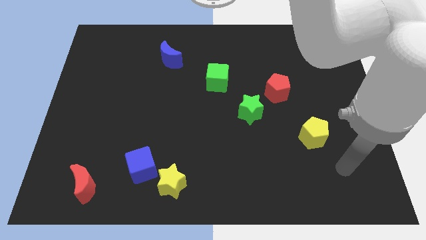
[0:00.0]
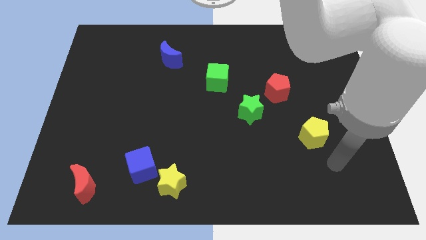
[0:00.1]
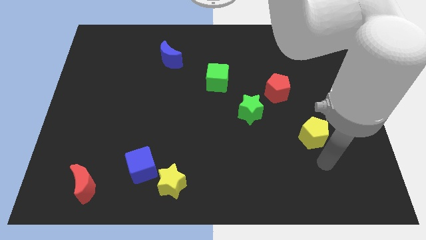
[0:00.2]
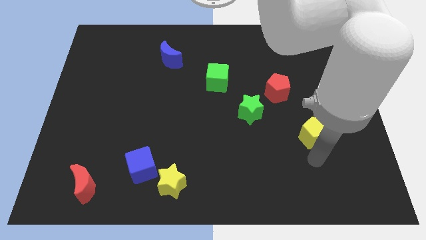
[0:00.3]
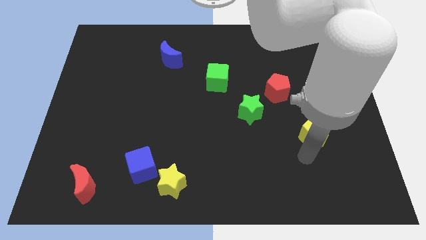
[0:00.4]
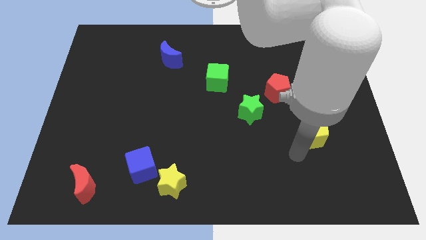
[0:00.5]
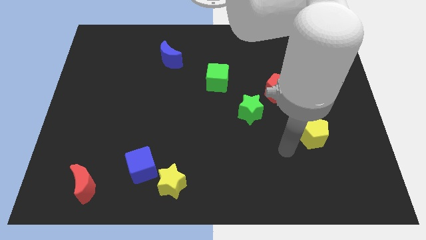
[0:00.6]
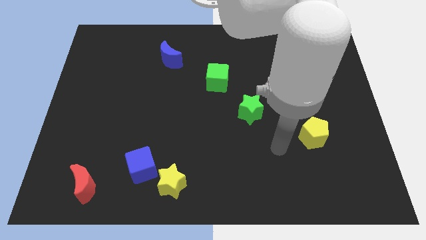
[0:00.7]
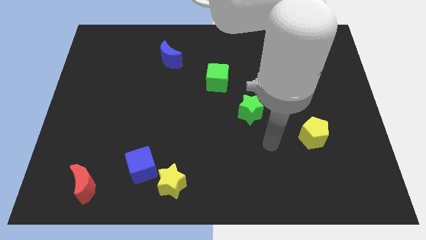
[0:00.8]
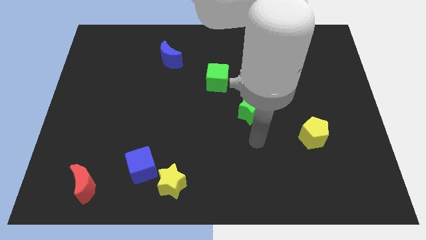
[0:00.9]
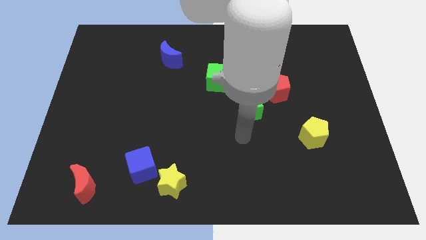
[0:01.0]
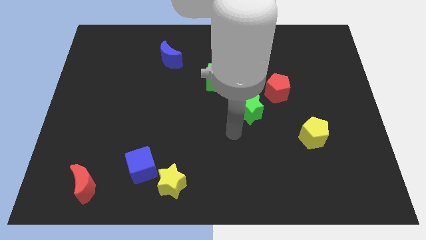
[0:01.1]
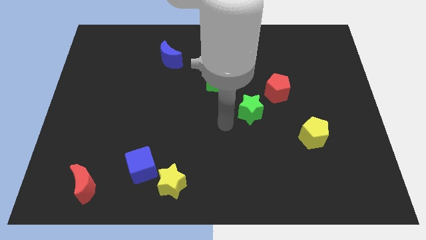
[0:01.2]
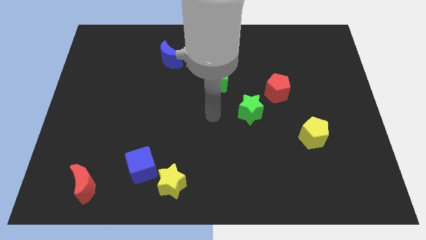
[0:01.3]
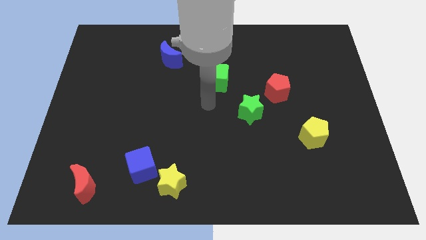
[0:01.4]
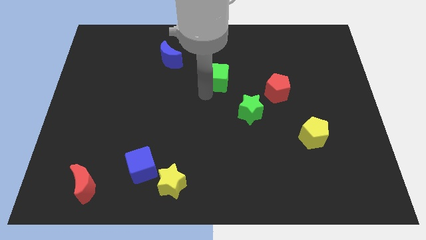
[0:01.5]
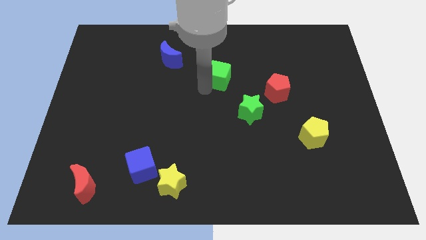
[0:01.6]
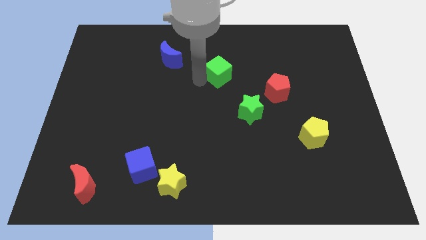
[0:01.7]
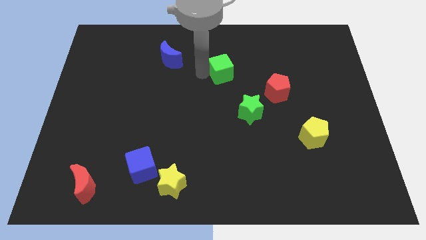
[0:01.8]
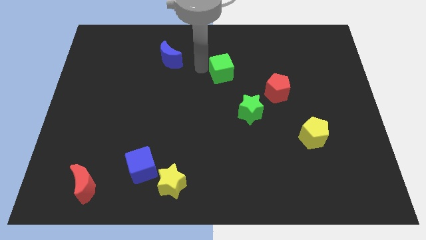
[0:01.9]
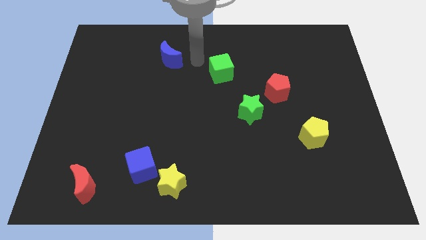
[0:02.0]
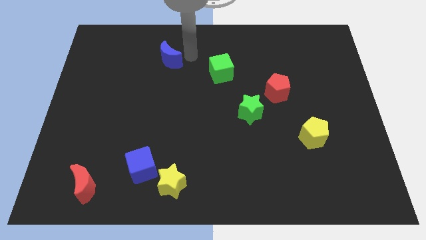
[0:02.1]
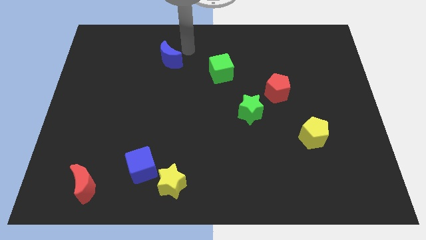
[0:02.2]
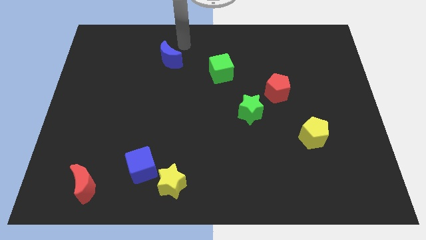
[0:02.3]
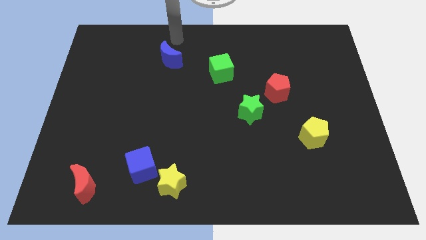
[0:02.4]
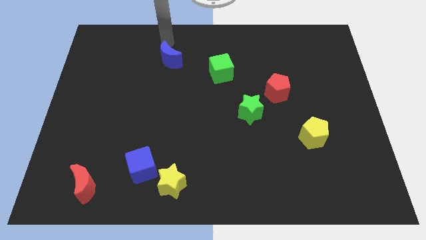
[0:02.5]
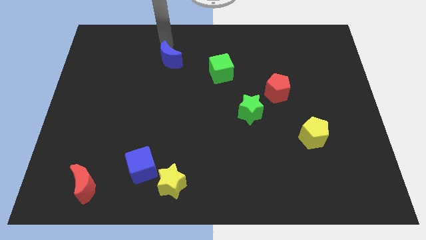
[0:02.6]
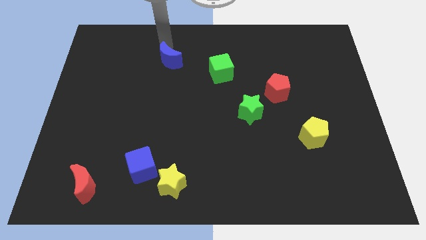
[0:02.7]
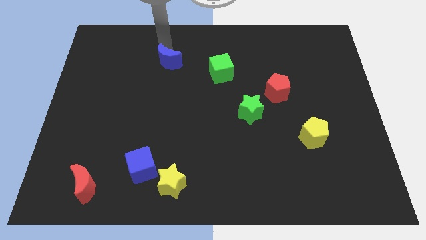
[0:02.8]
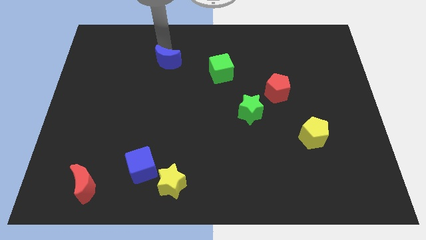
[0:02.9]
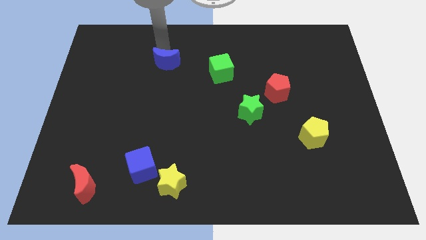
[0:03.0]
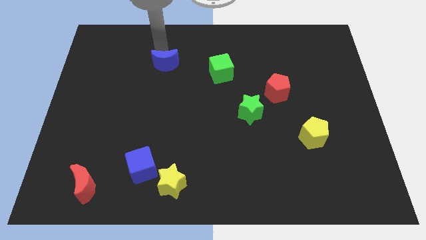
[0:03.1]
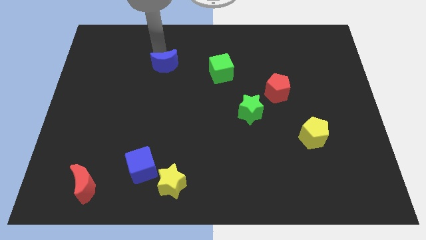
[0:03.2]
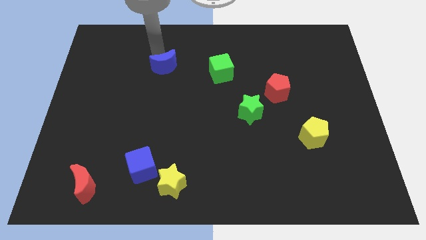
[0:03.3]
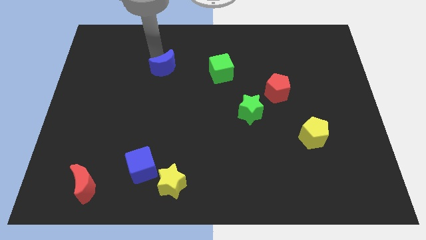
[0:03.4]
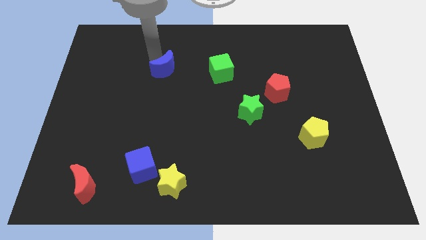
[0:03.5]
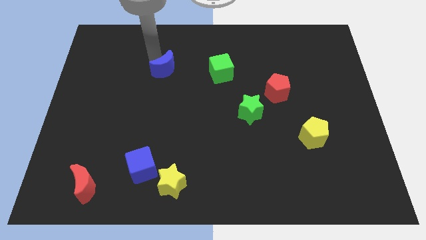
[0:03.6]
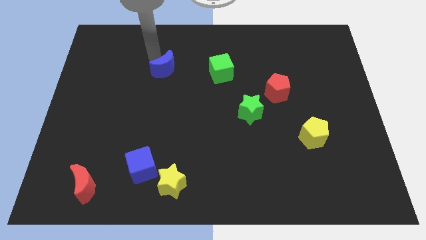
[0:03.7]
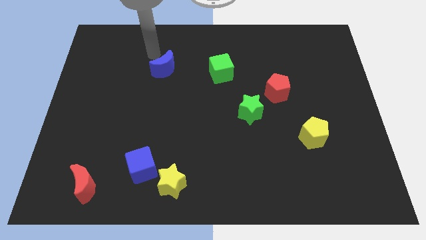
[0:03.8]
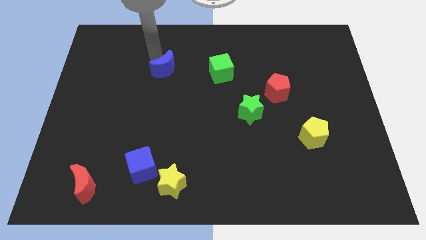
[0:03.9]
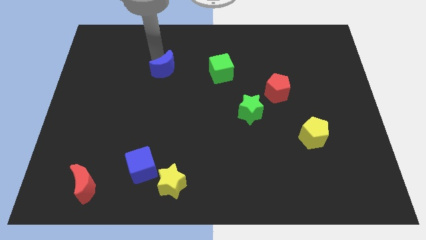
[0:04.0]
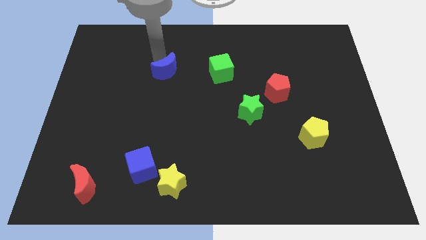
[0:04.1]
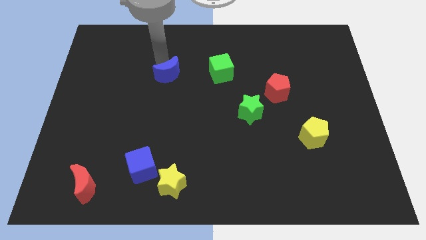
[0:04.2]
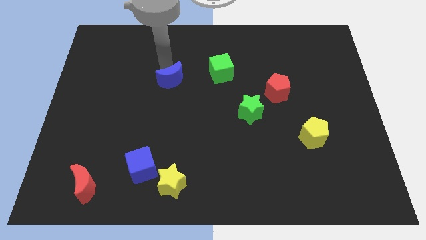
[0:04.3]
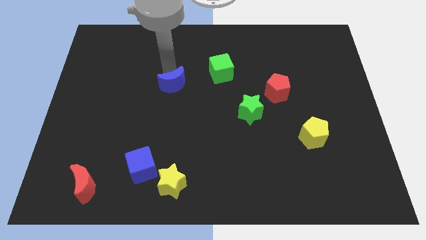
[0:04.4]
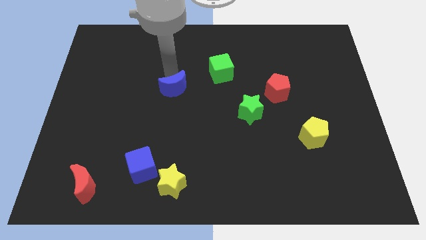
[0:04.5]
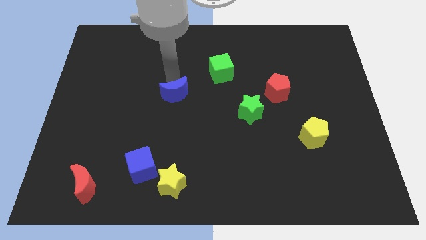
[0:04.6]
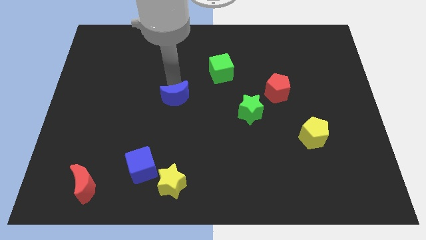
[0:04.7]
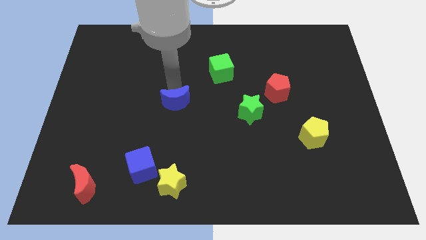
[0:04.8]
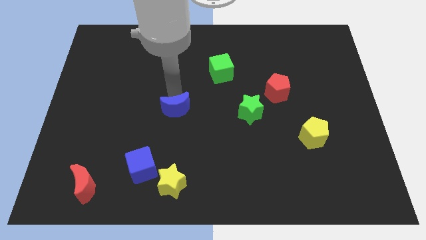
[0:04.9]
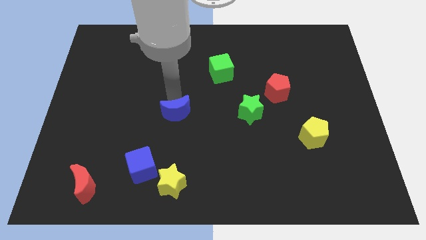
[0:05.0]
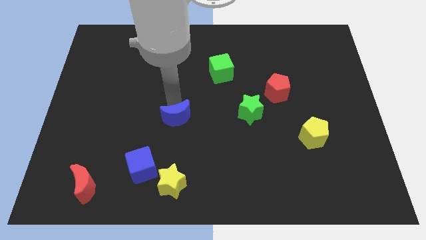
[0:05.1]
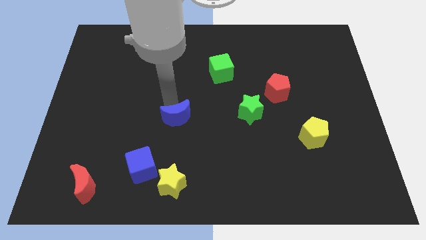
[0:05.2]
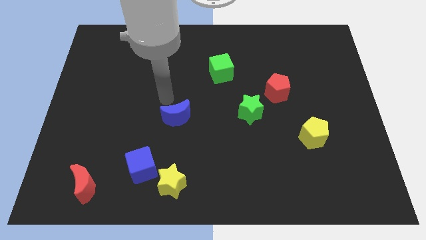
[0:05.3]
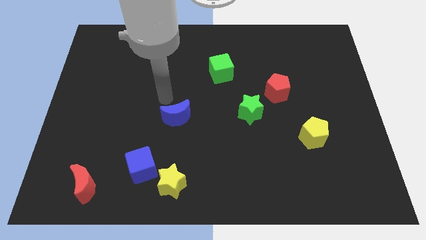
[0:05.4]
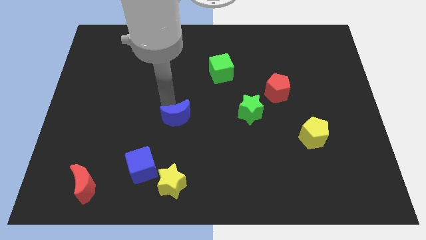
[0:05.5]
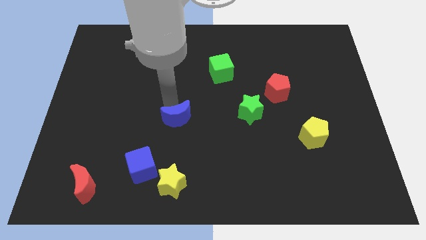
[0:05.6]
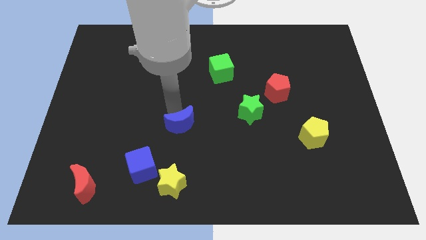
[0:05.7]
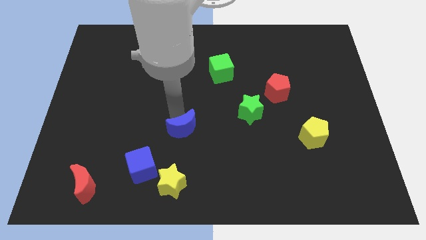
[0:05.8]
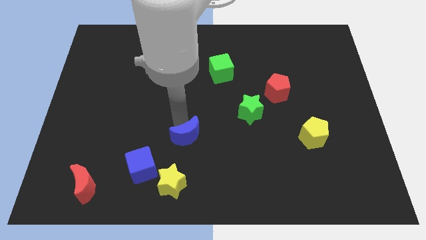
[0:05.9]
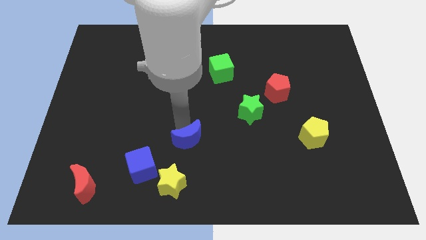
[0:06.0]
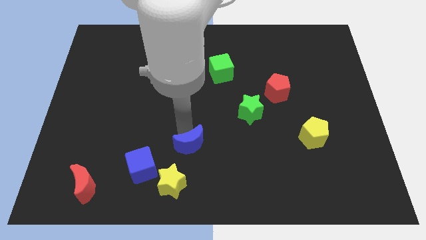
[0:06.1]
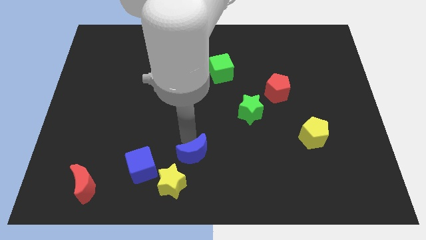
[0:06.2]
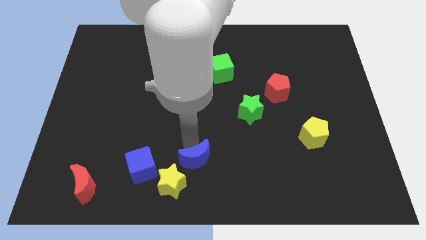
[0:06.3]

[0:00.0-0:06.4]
slide the blue moon to the bottom
